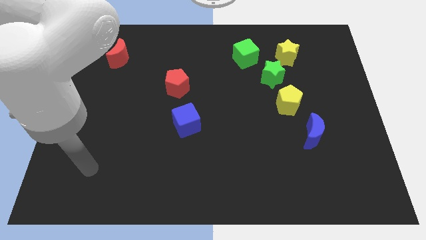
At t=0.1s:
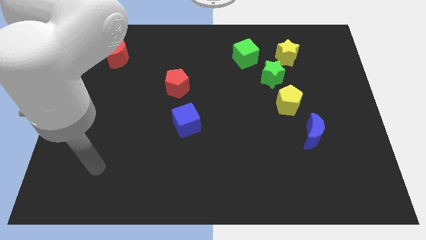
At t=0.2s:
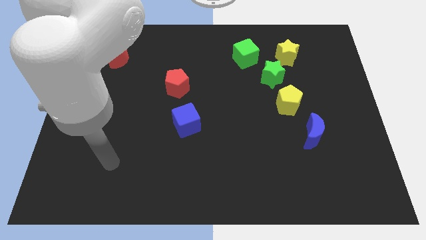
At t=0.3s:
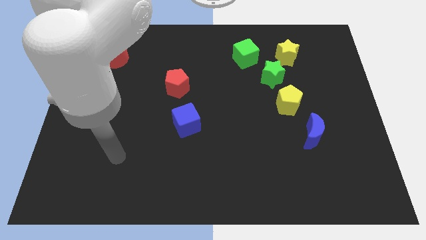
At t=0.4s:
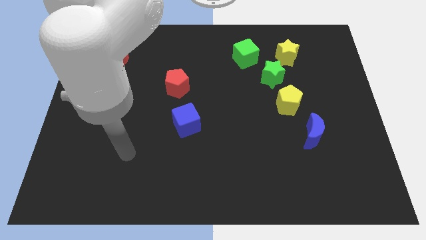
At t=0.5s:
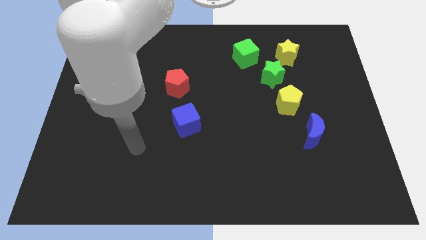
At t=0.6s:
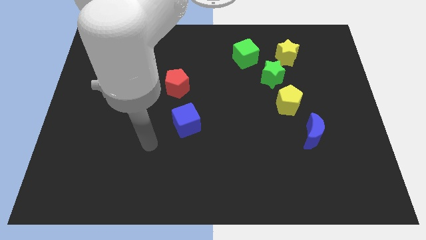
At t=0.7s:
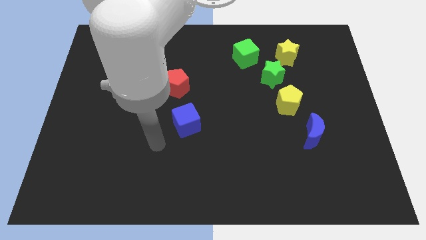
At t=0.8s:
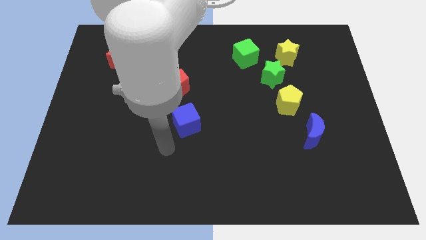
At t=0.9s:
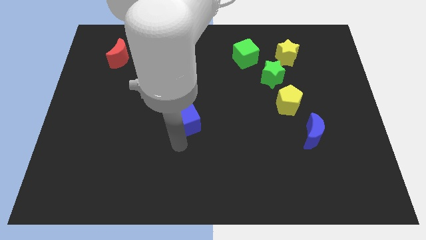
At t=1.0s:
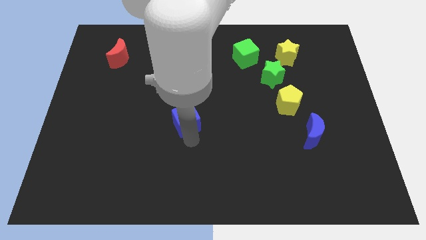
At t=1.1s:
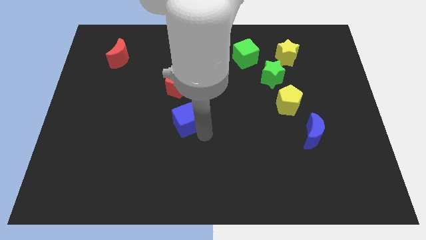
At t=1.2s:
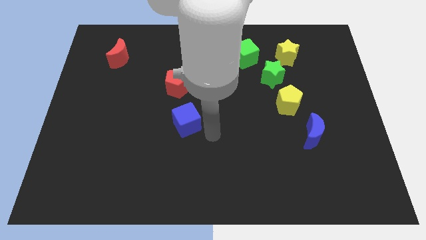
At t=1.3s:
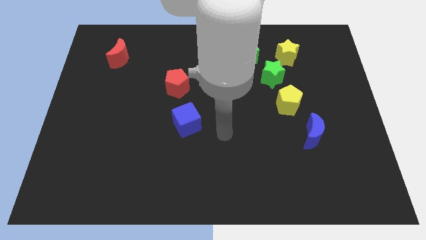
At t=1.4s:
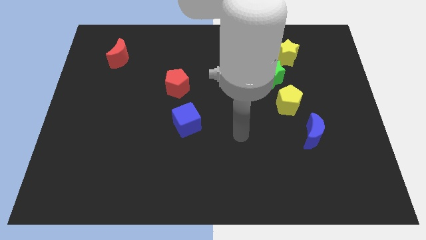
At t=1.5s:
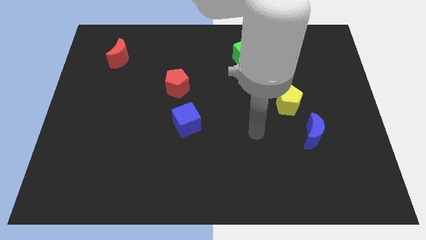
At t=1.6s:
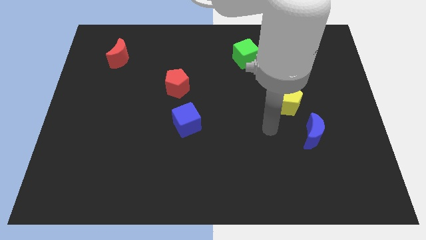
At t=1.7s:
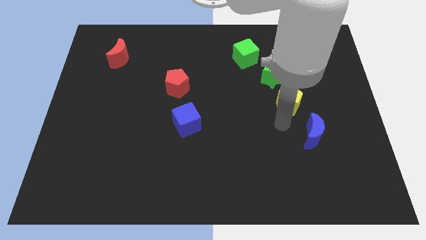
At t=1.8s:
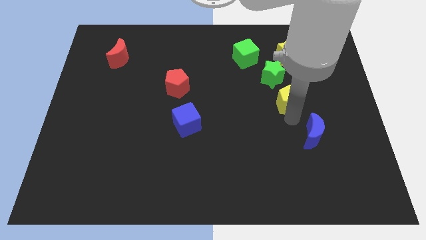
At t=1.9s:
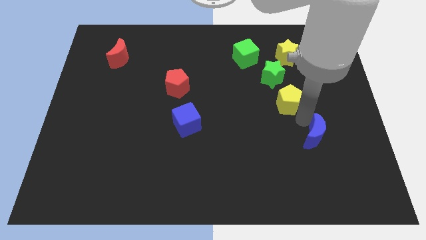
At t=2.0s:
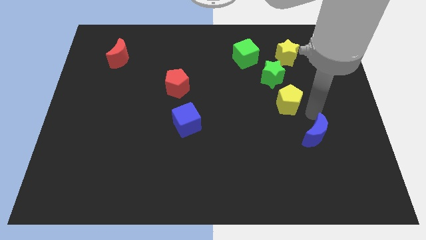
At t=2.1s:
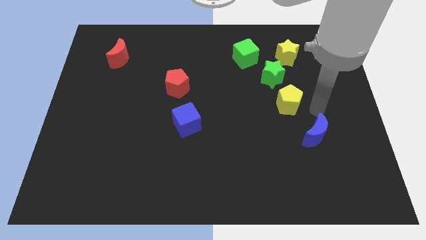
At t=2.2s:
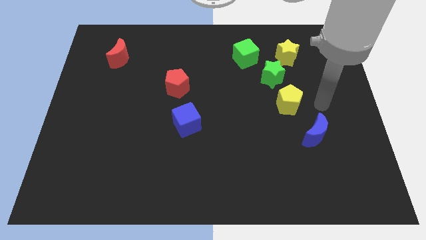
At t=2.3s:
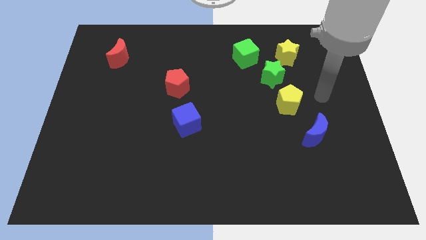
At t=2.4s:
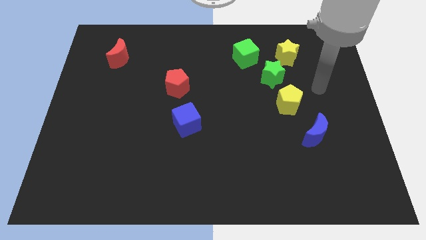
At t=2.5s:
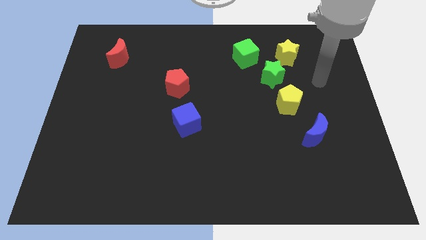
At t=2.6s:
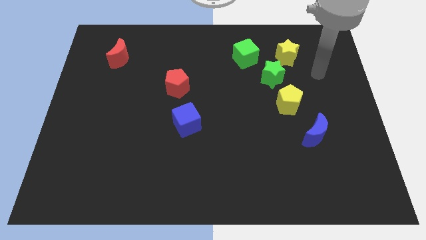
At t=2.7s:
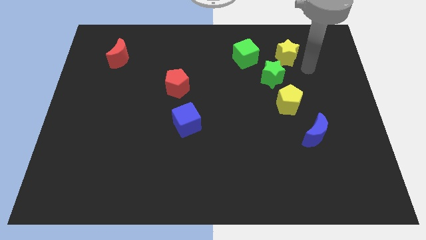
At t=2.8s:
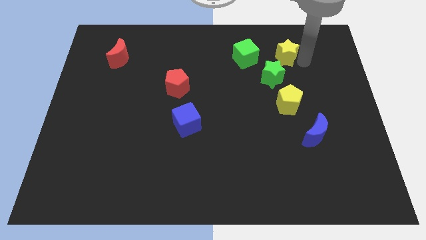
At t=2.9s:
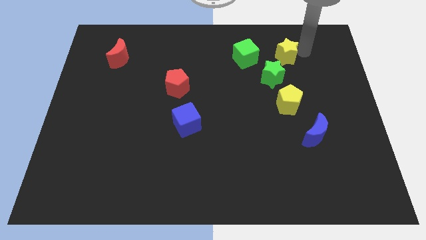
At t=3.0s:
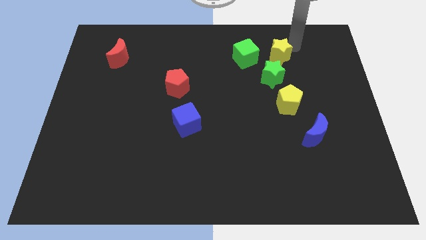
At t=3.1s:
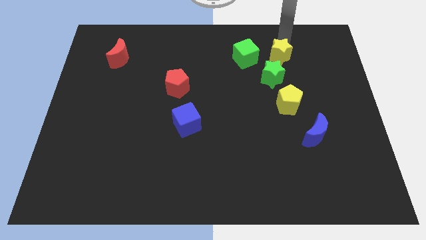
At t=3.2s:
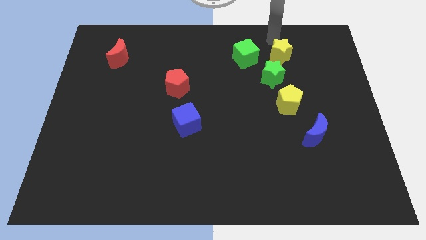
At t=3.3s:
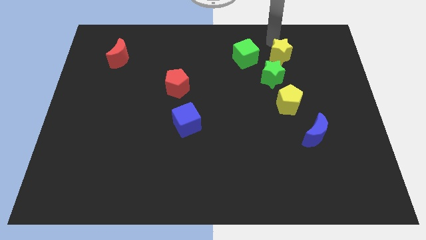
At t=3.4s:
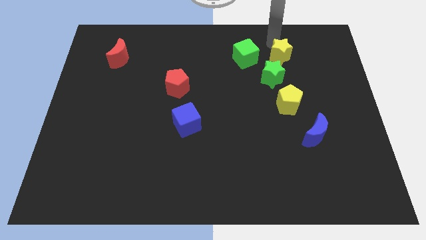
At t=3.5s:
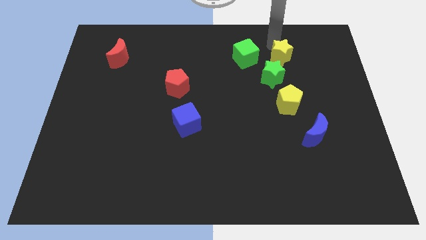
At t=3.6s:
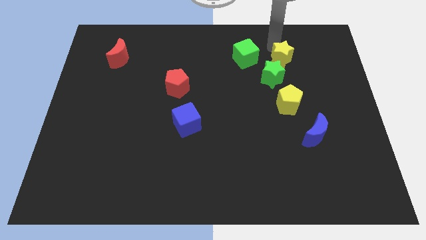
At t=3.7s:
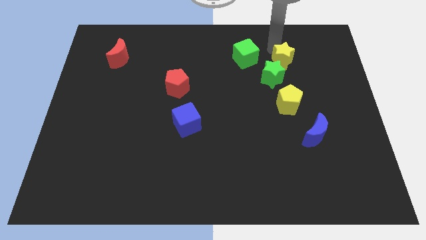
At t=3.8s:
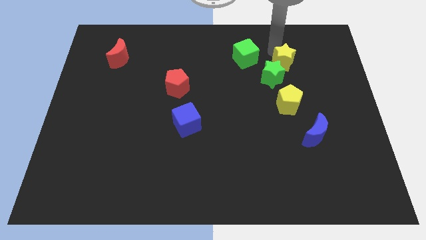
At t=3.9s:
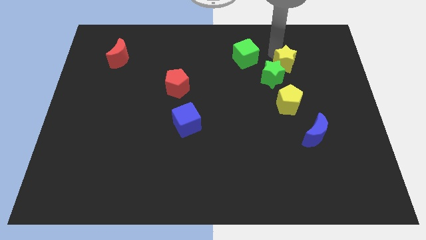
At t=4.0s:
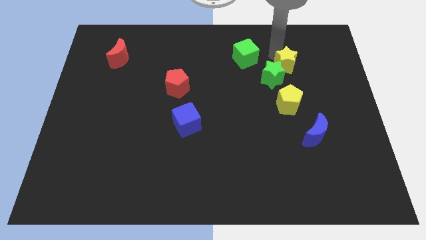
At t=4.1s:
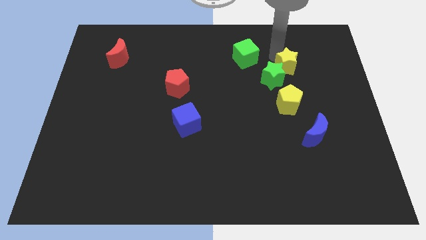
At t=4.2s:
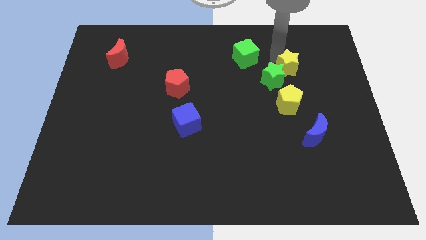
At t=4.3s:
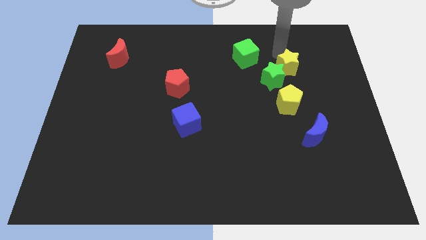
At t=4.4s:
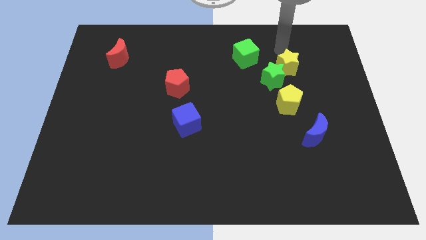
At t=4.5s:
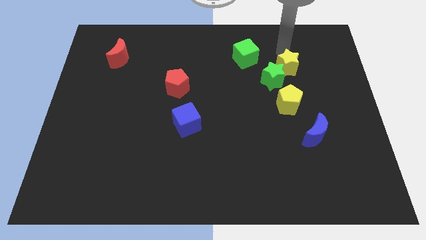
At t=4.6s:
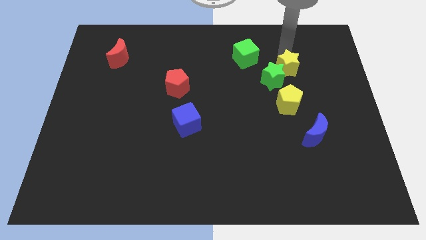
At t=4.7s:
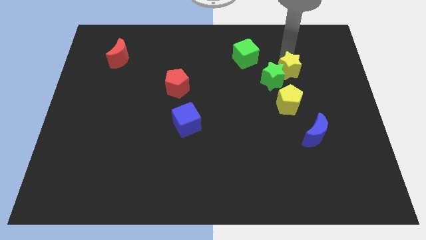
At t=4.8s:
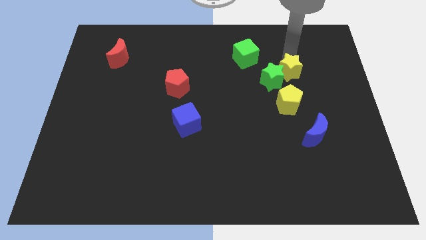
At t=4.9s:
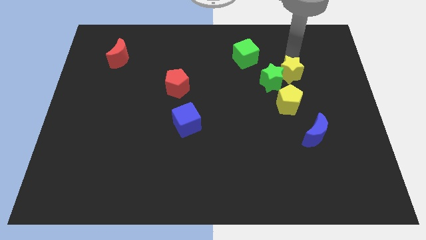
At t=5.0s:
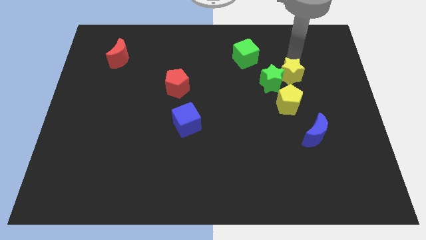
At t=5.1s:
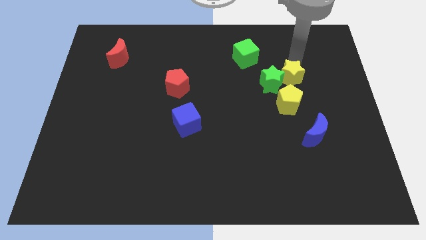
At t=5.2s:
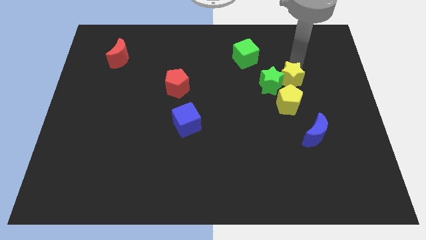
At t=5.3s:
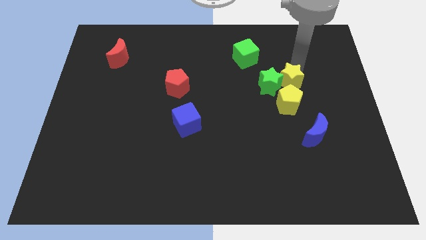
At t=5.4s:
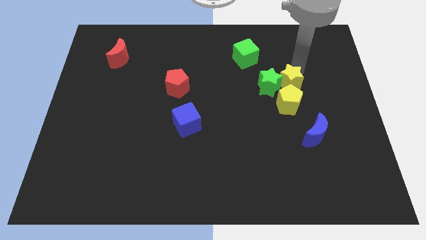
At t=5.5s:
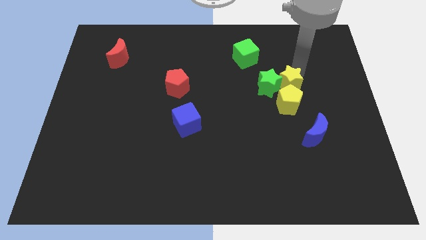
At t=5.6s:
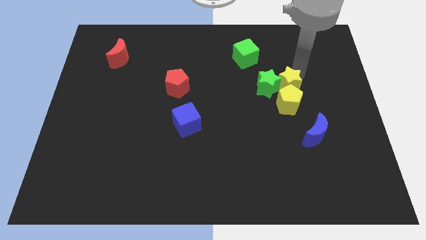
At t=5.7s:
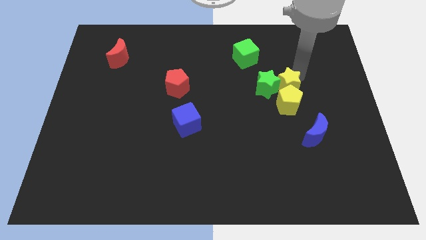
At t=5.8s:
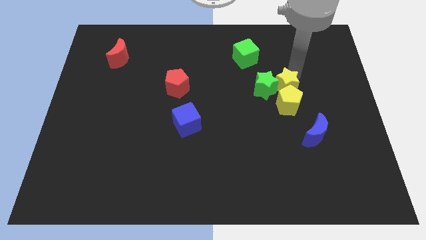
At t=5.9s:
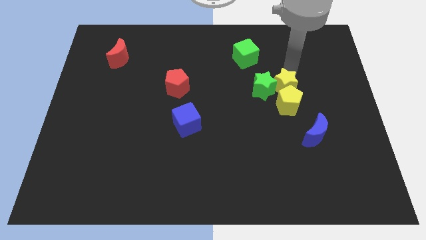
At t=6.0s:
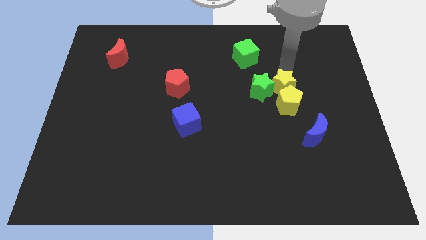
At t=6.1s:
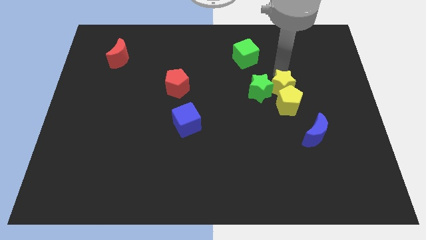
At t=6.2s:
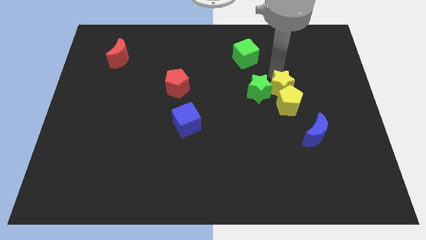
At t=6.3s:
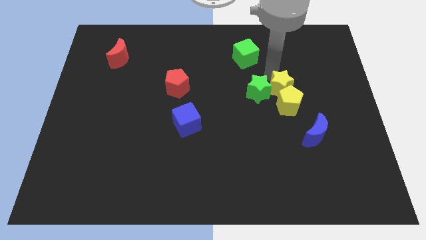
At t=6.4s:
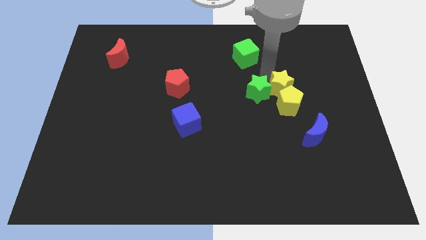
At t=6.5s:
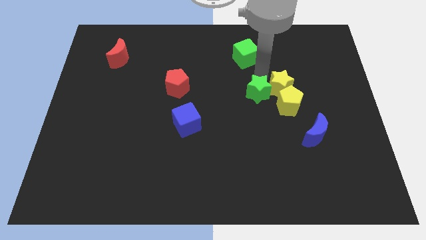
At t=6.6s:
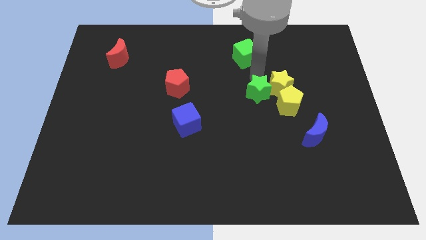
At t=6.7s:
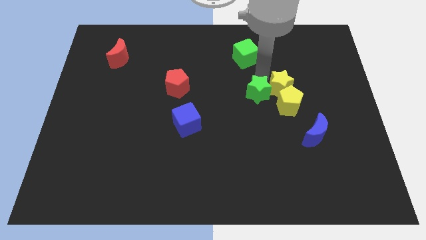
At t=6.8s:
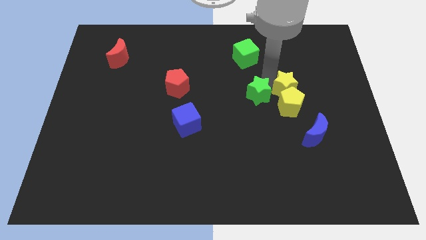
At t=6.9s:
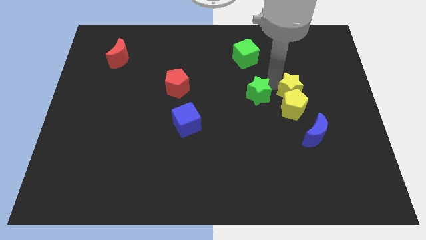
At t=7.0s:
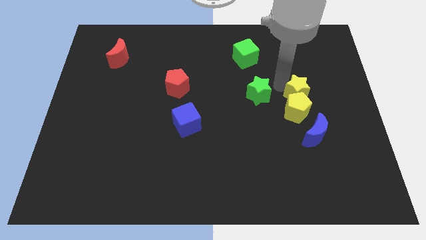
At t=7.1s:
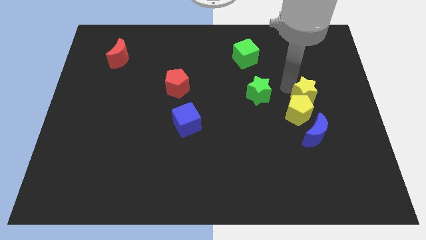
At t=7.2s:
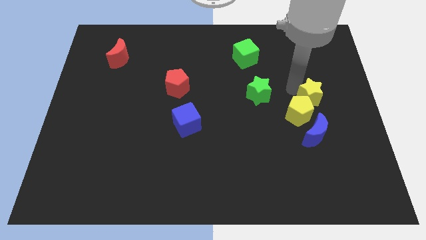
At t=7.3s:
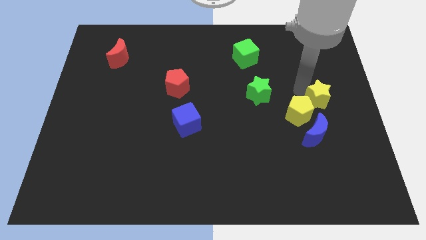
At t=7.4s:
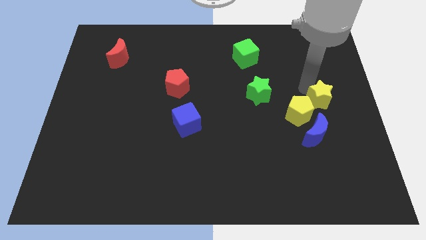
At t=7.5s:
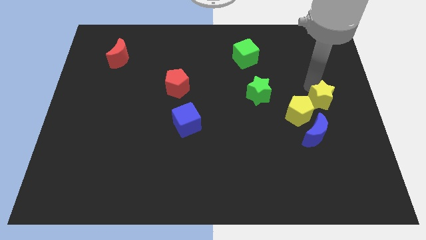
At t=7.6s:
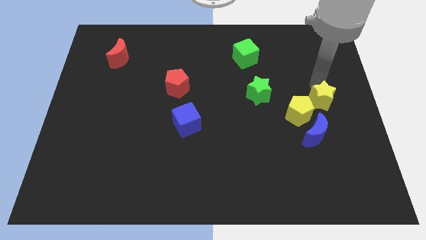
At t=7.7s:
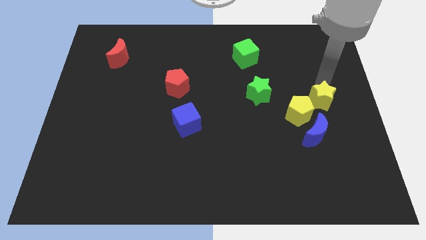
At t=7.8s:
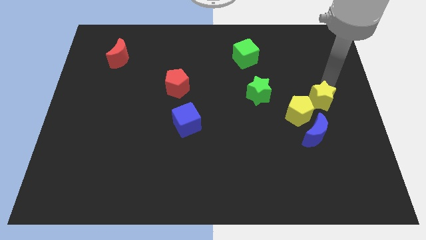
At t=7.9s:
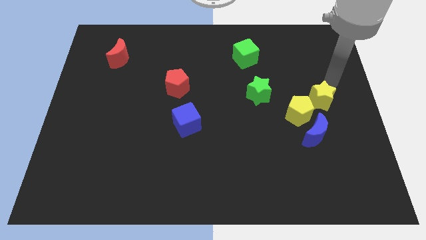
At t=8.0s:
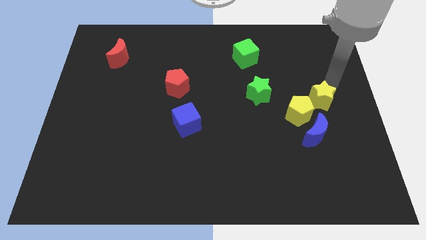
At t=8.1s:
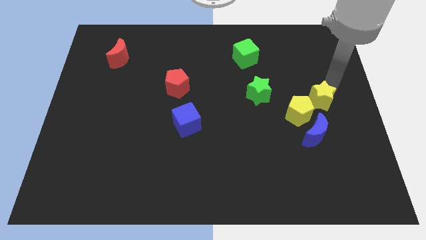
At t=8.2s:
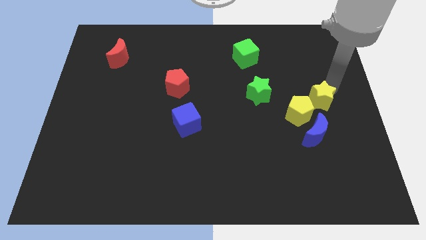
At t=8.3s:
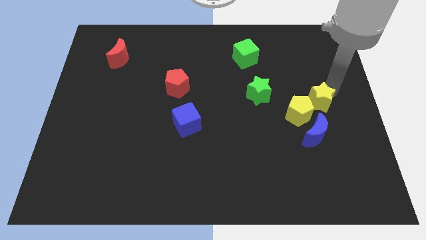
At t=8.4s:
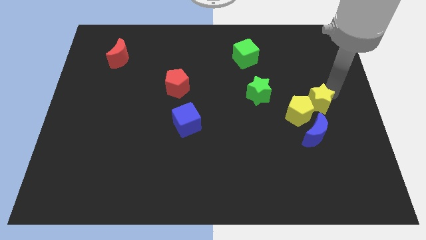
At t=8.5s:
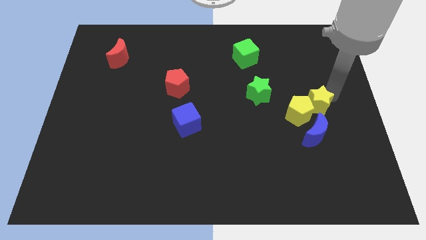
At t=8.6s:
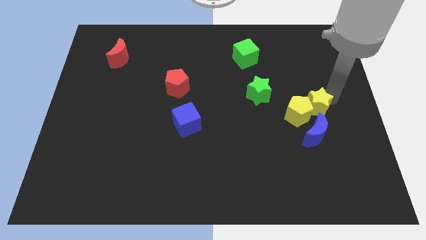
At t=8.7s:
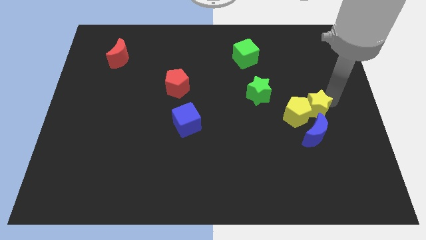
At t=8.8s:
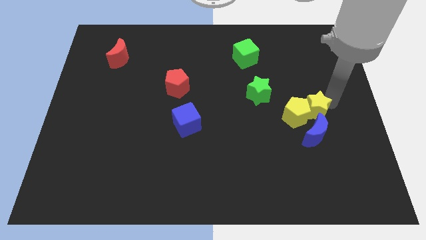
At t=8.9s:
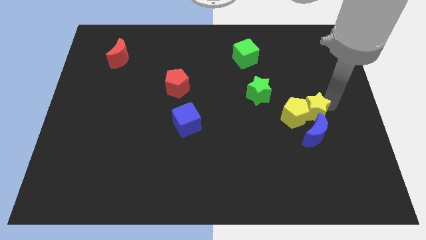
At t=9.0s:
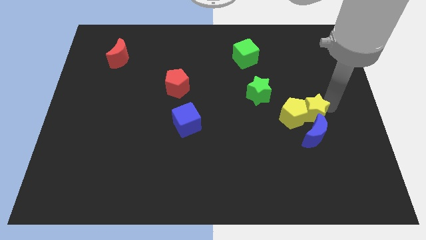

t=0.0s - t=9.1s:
put the yellow star close to the blue moon
